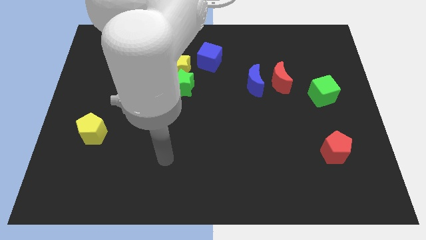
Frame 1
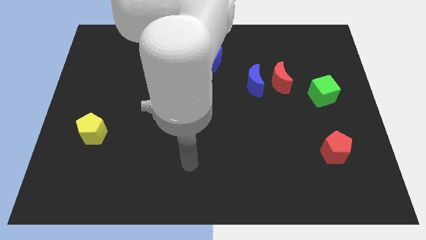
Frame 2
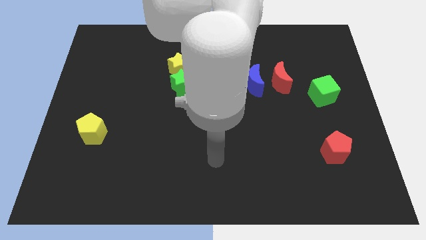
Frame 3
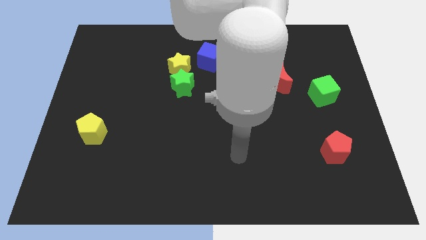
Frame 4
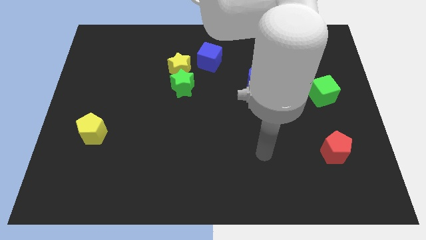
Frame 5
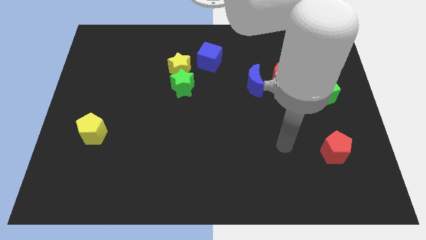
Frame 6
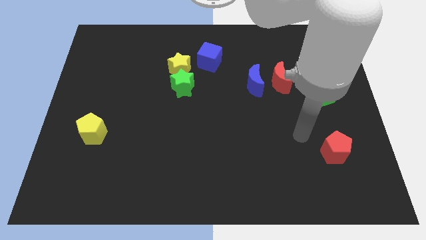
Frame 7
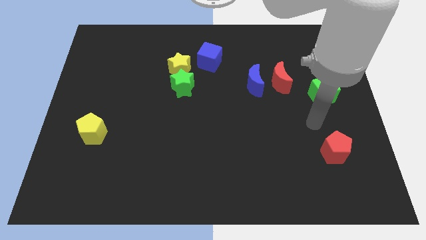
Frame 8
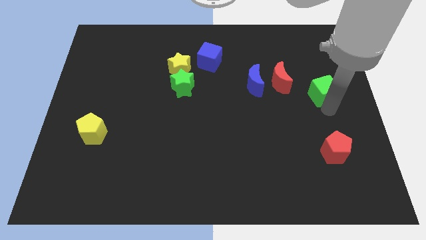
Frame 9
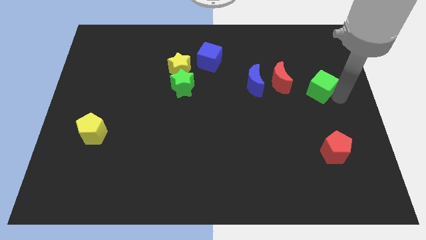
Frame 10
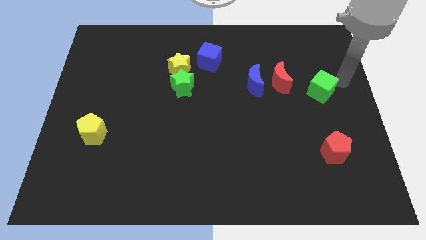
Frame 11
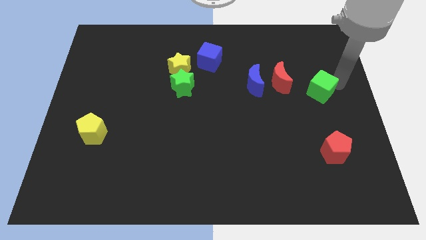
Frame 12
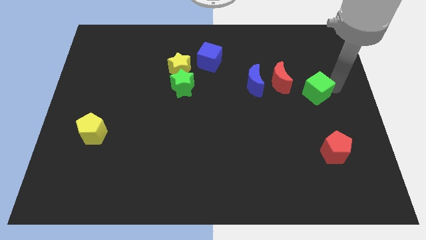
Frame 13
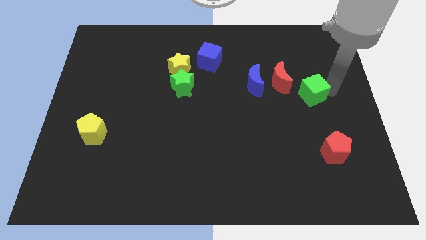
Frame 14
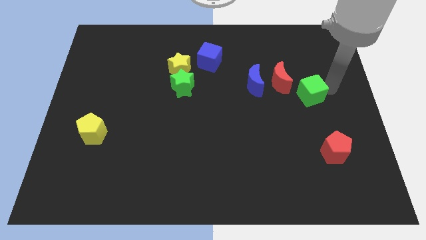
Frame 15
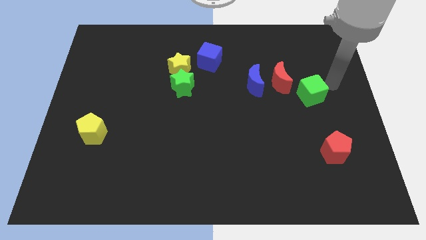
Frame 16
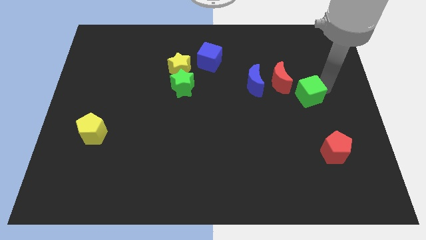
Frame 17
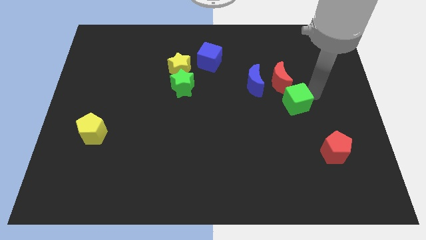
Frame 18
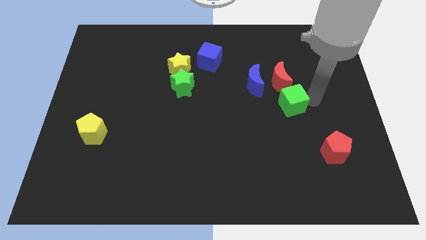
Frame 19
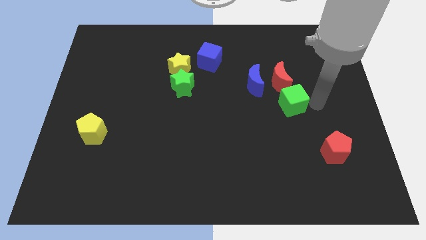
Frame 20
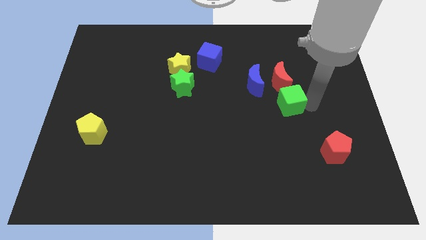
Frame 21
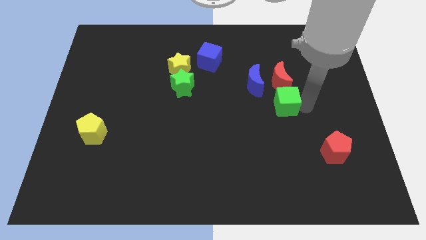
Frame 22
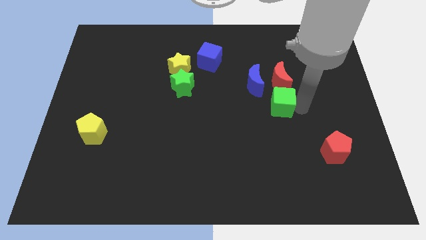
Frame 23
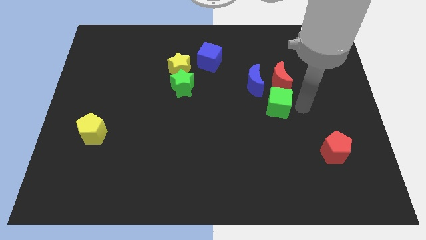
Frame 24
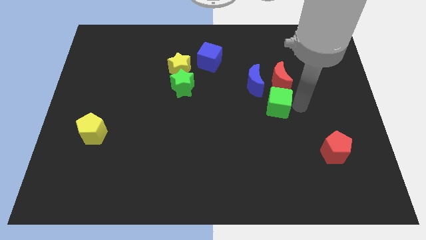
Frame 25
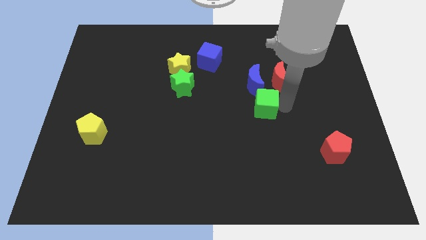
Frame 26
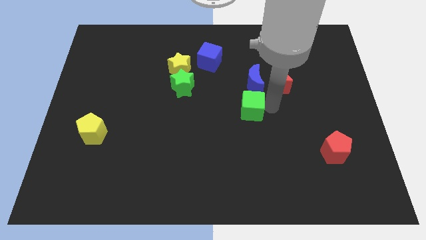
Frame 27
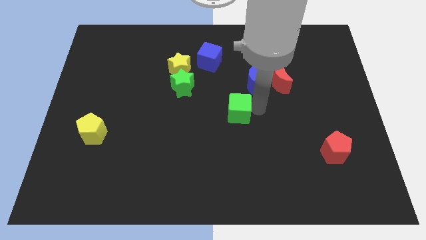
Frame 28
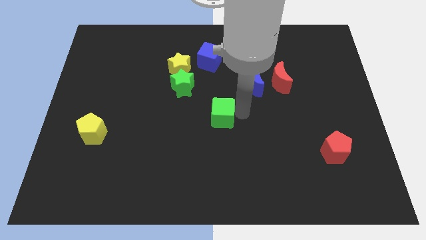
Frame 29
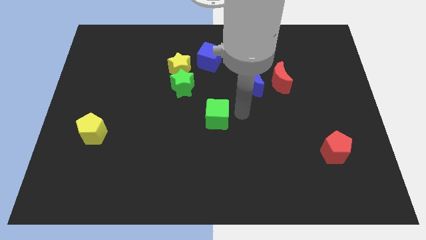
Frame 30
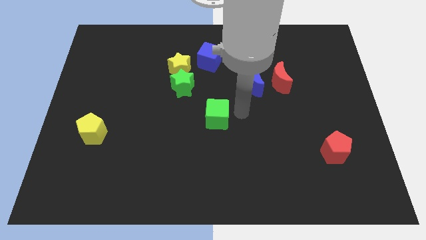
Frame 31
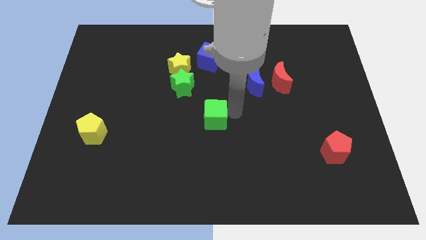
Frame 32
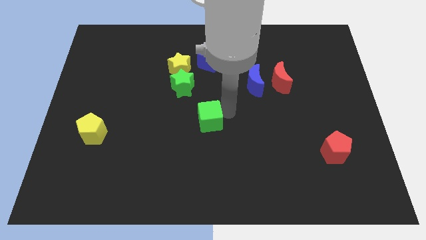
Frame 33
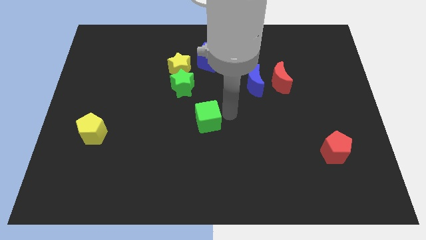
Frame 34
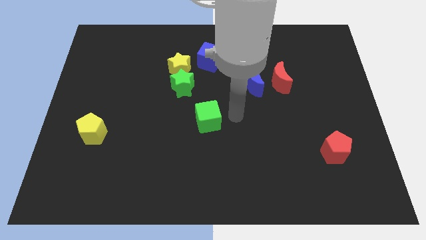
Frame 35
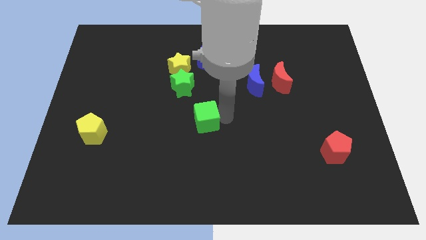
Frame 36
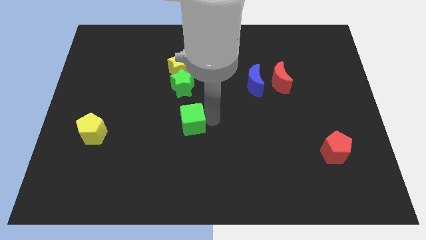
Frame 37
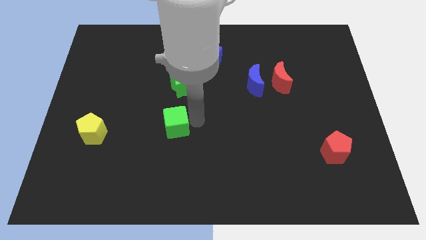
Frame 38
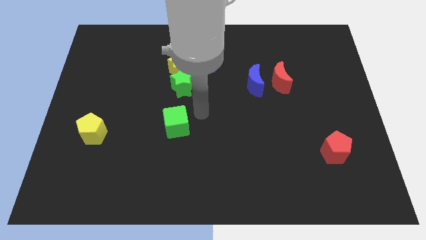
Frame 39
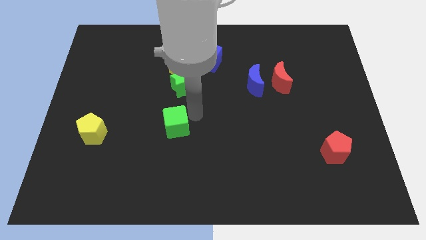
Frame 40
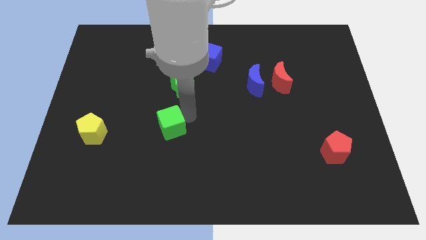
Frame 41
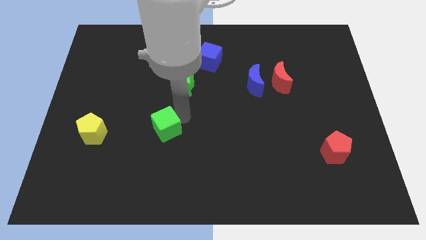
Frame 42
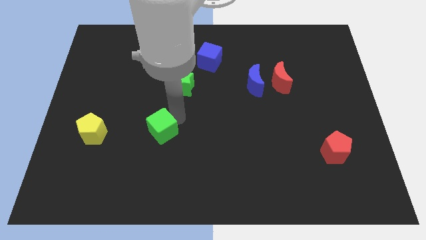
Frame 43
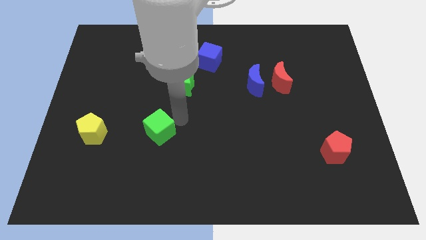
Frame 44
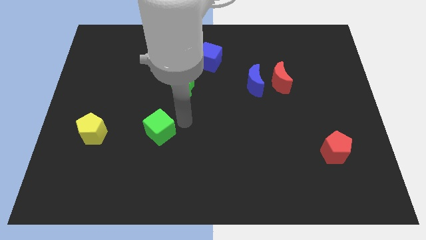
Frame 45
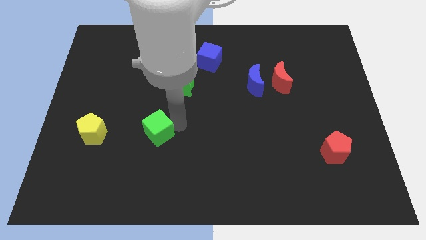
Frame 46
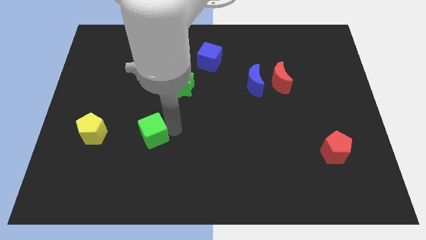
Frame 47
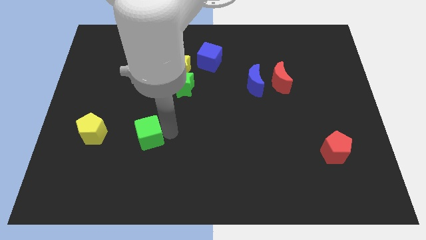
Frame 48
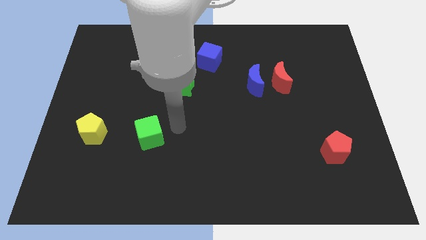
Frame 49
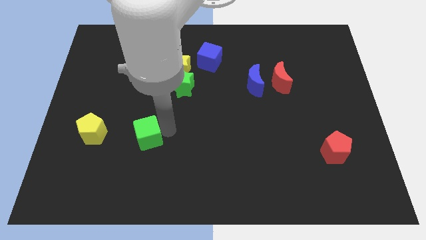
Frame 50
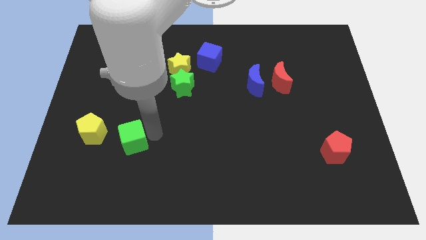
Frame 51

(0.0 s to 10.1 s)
slide the green cube to the bottom right of the yellow pentagon

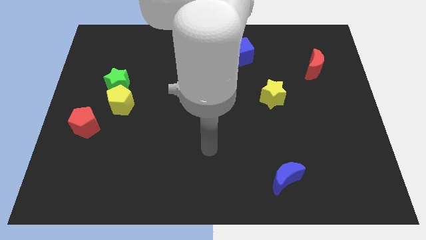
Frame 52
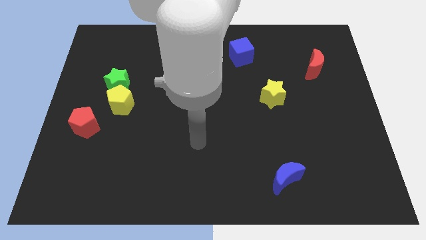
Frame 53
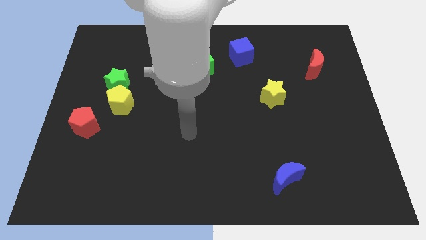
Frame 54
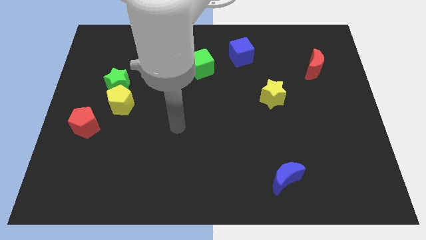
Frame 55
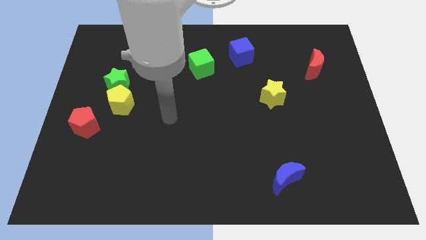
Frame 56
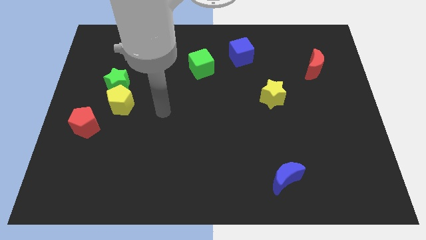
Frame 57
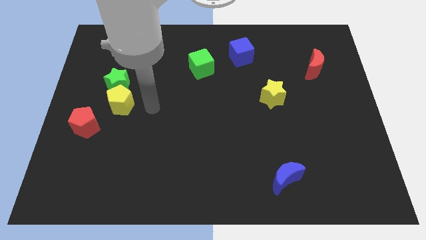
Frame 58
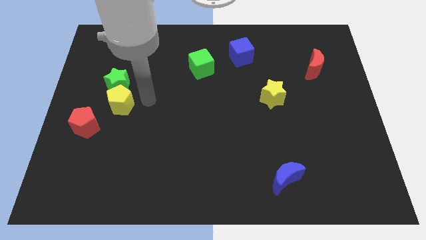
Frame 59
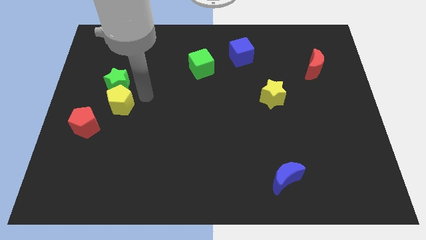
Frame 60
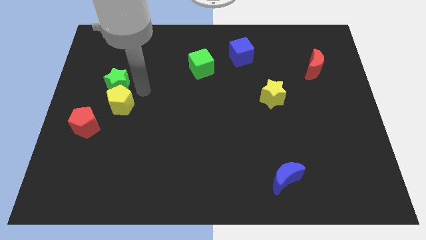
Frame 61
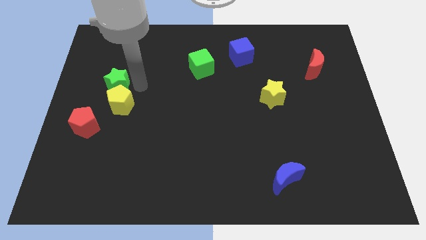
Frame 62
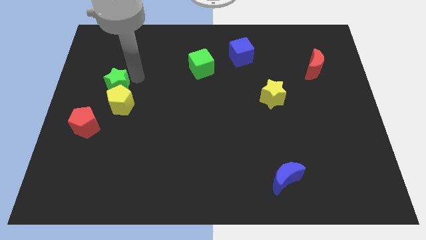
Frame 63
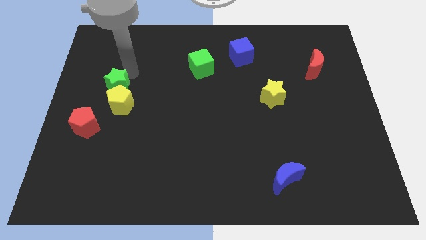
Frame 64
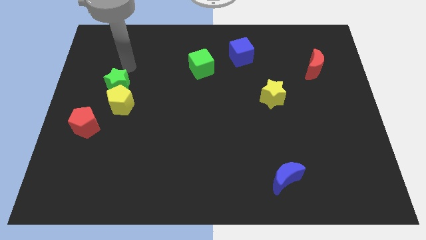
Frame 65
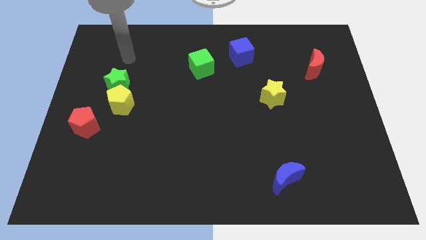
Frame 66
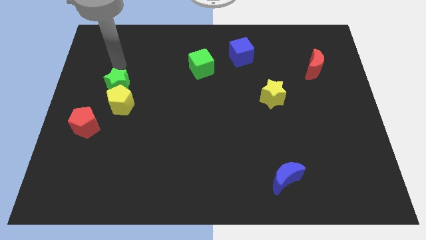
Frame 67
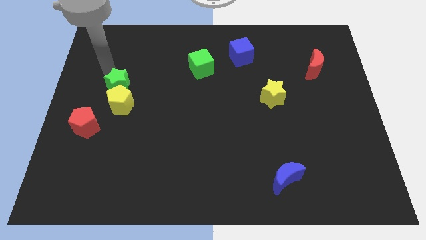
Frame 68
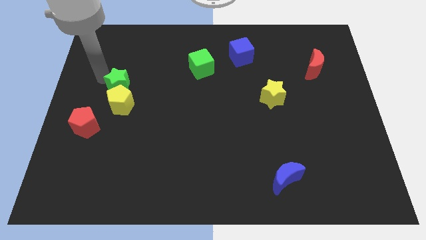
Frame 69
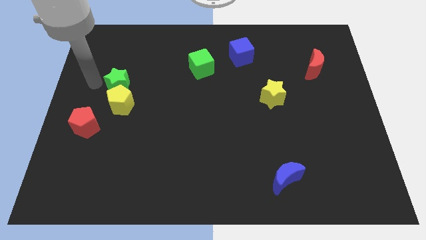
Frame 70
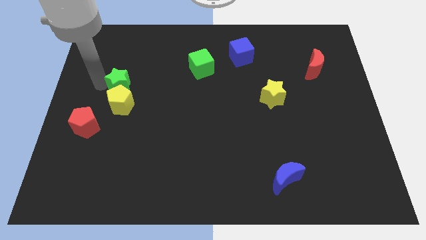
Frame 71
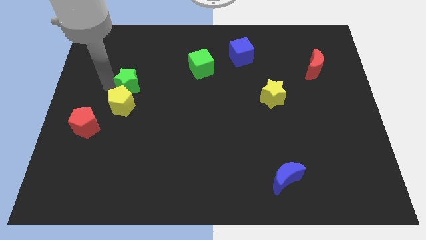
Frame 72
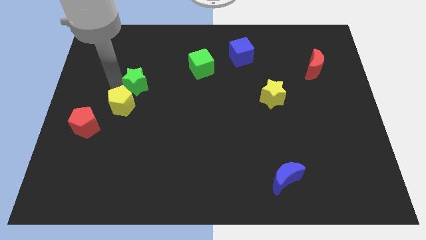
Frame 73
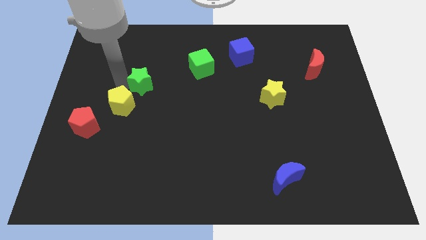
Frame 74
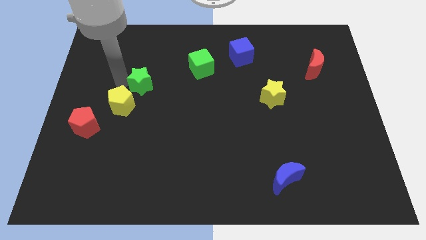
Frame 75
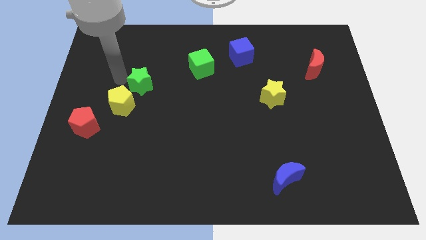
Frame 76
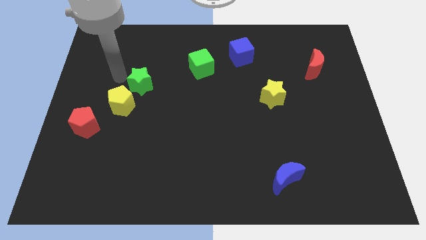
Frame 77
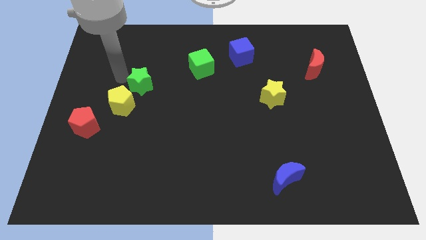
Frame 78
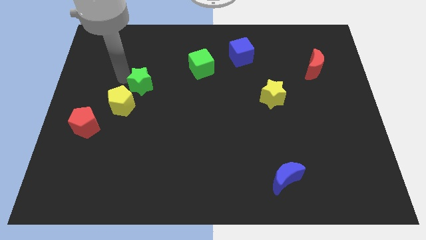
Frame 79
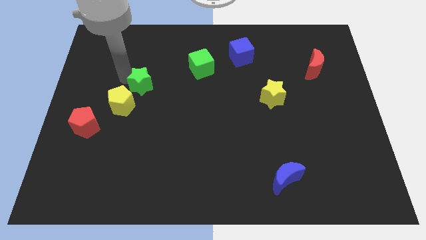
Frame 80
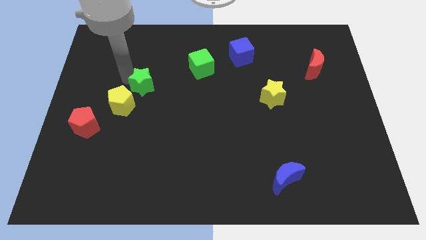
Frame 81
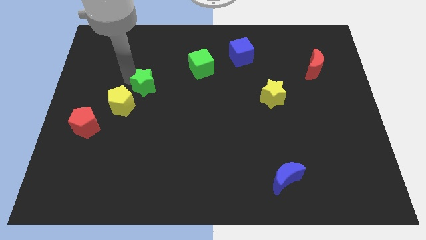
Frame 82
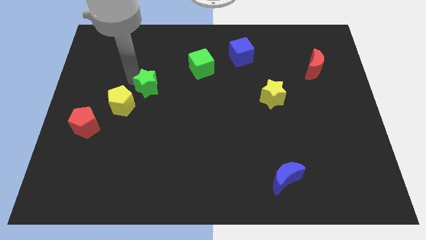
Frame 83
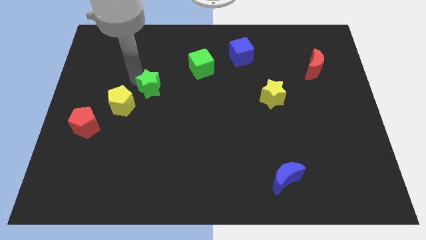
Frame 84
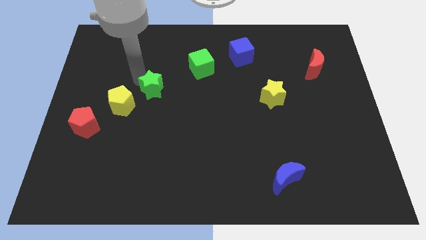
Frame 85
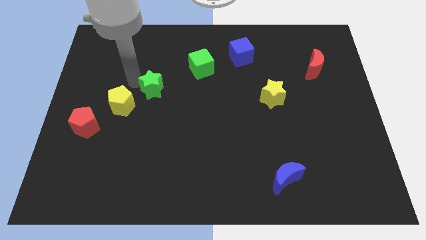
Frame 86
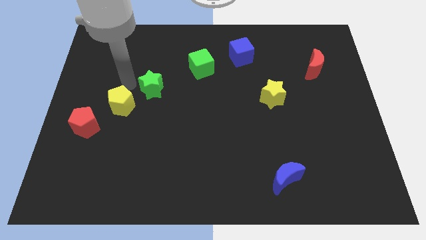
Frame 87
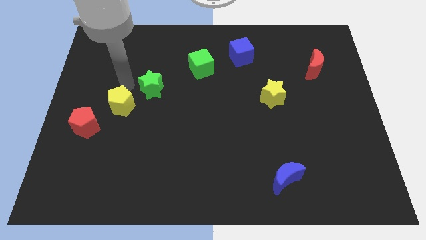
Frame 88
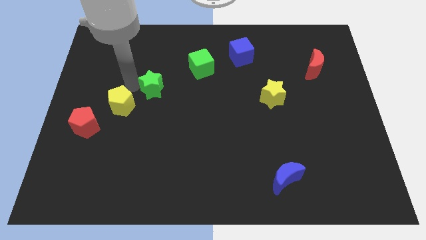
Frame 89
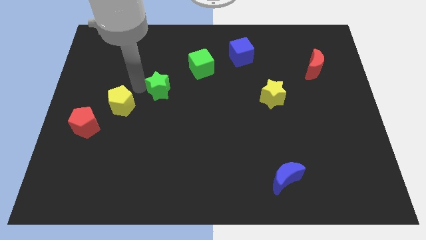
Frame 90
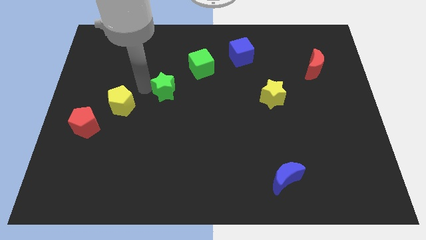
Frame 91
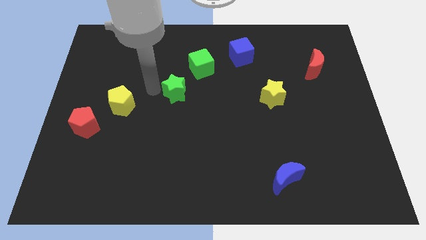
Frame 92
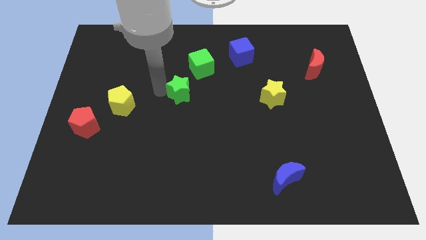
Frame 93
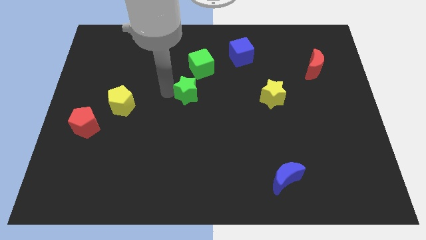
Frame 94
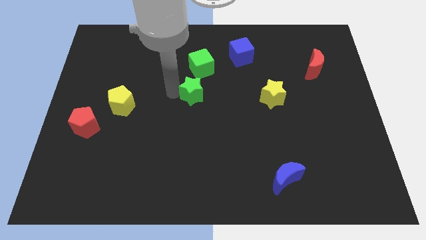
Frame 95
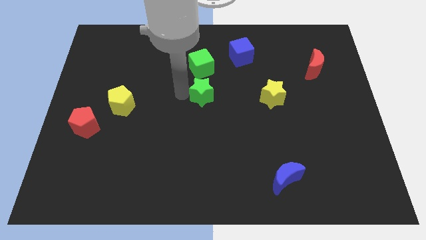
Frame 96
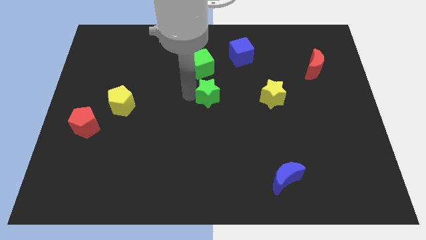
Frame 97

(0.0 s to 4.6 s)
push the green star to the left of the yellow star
